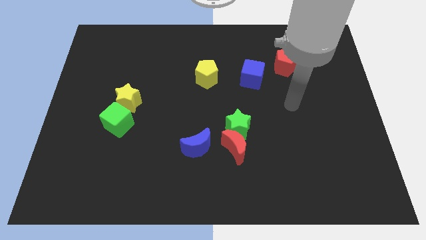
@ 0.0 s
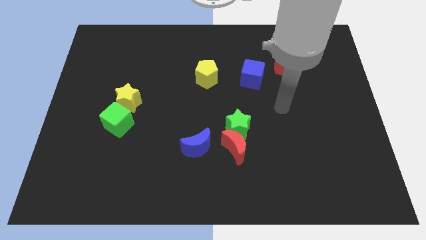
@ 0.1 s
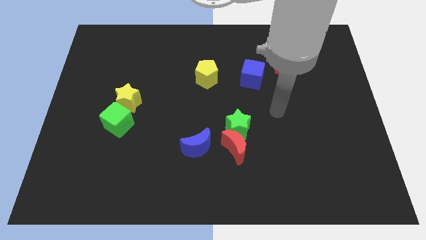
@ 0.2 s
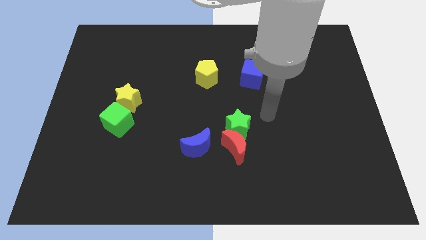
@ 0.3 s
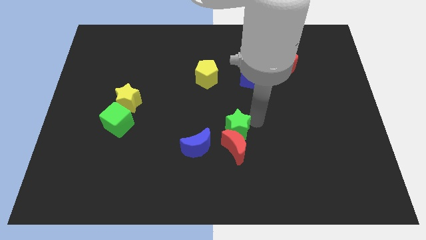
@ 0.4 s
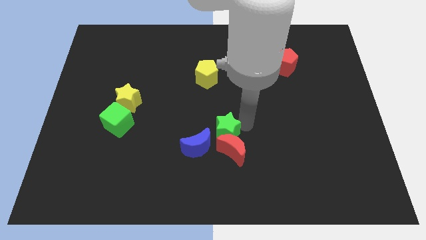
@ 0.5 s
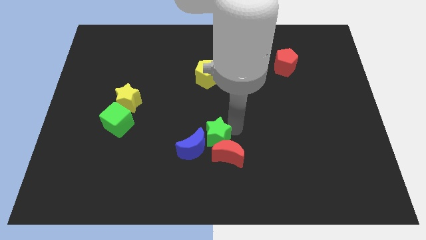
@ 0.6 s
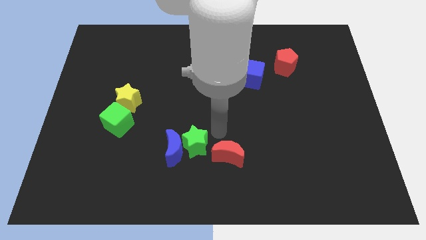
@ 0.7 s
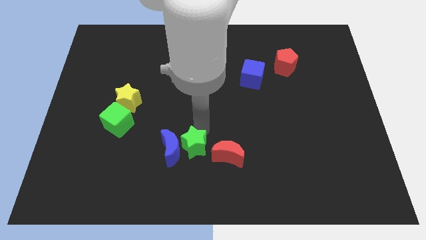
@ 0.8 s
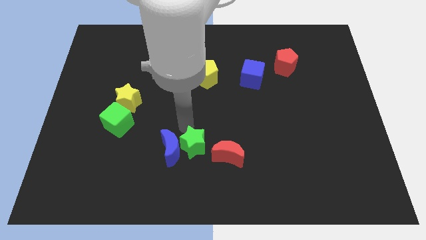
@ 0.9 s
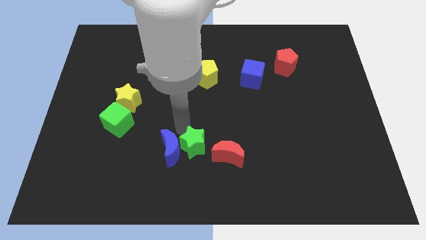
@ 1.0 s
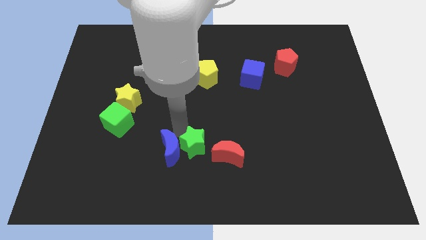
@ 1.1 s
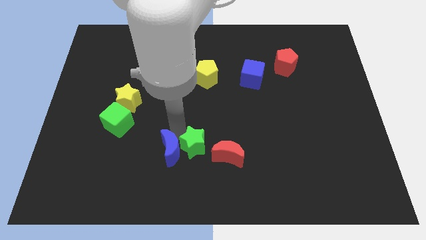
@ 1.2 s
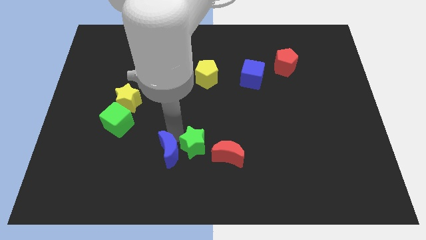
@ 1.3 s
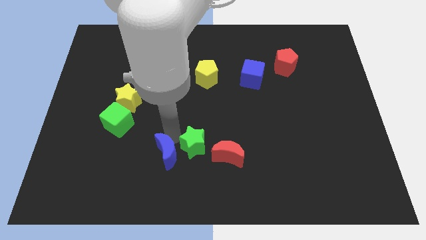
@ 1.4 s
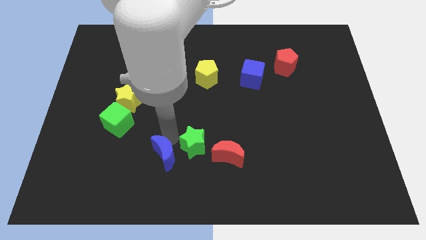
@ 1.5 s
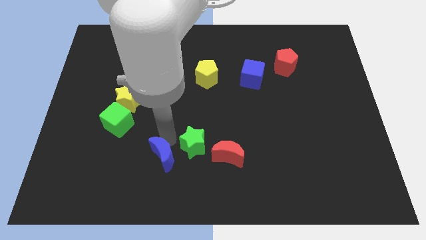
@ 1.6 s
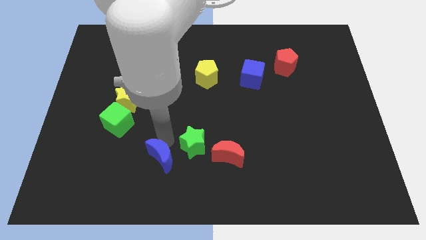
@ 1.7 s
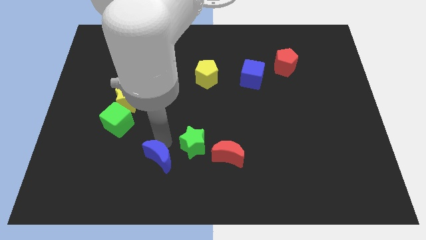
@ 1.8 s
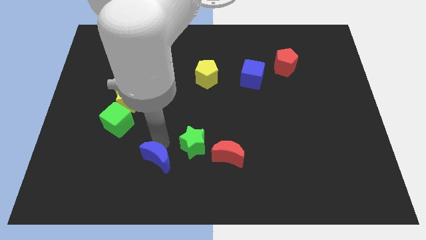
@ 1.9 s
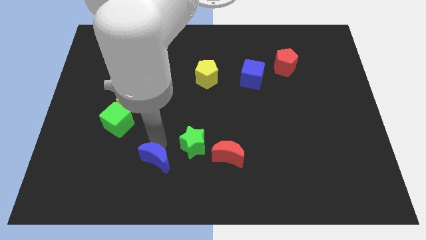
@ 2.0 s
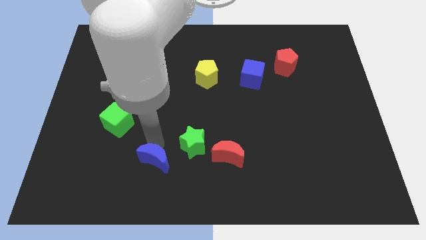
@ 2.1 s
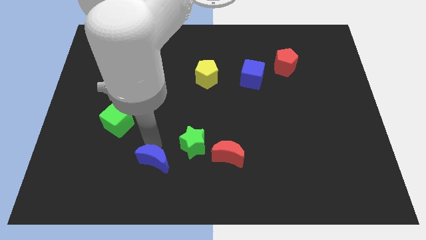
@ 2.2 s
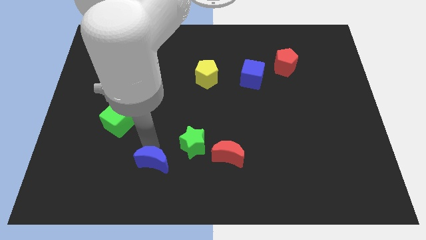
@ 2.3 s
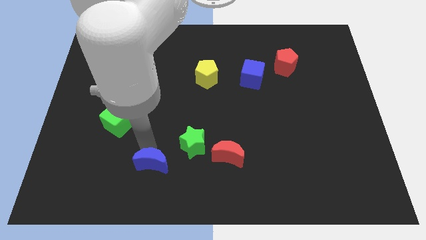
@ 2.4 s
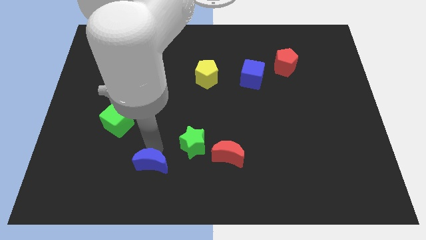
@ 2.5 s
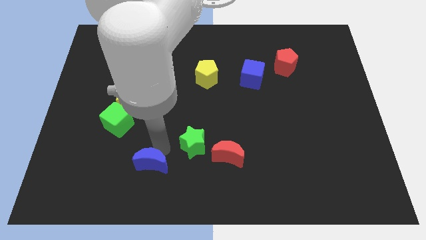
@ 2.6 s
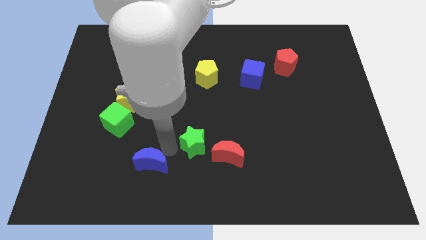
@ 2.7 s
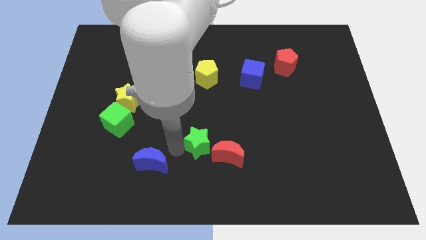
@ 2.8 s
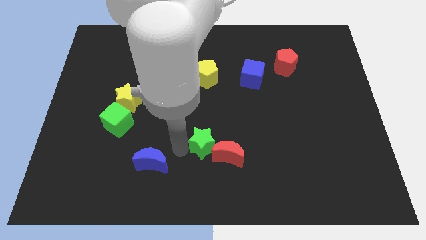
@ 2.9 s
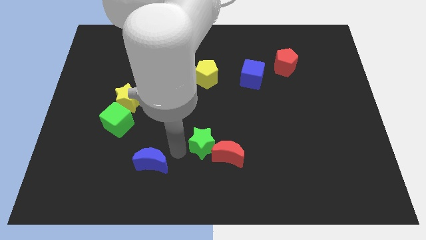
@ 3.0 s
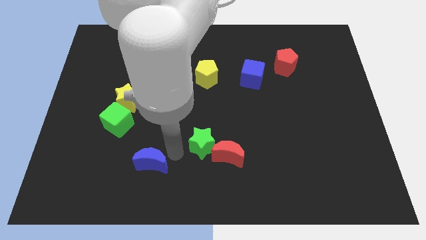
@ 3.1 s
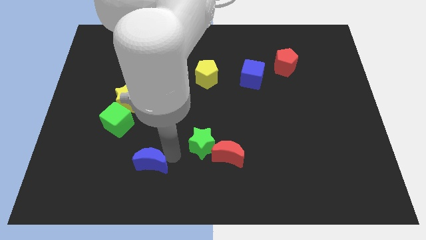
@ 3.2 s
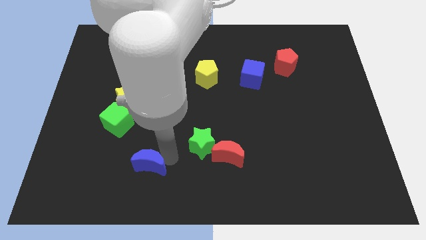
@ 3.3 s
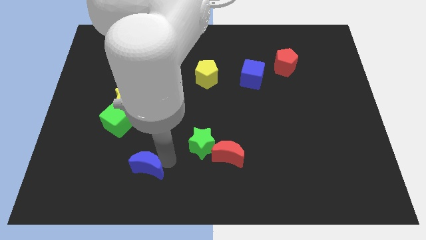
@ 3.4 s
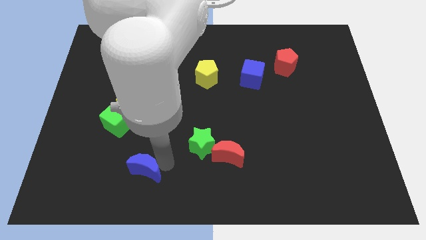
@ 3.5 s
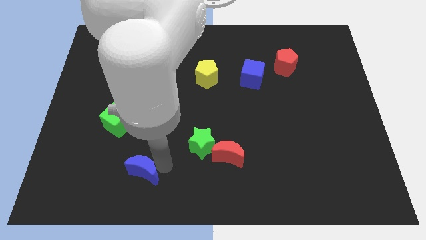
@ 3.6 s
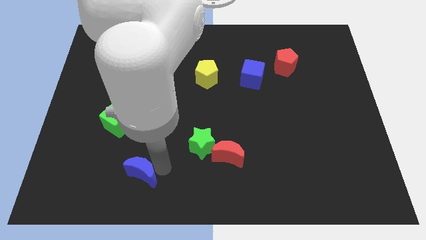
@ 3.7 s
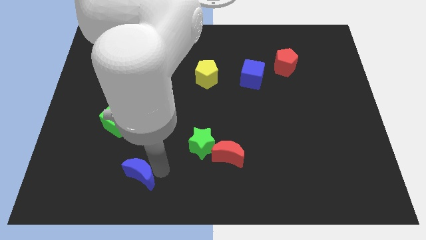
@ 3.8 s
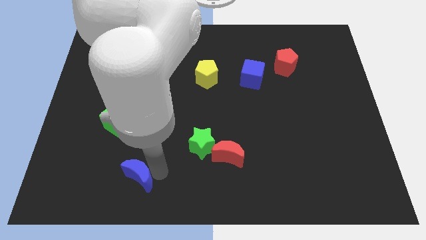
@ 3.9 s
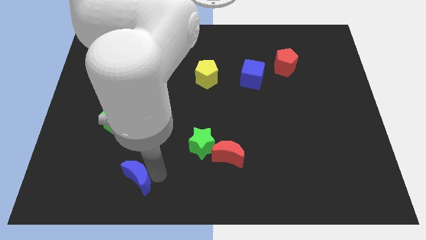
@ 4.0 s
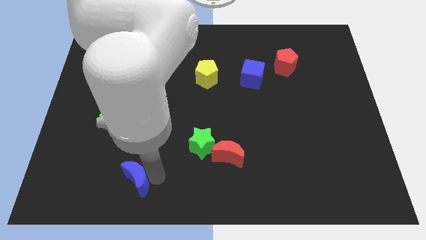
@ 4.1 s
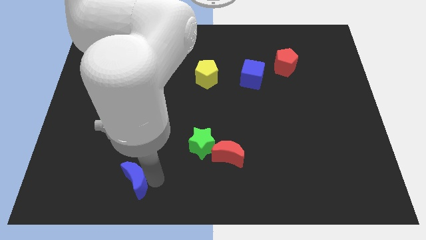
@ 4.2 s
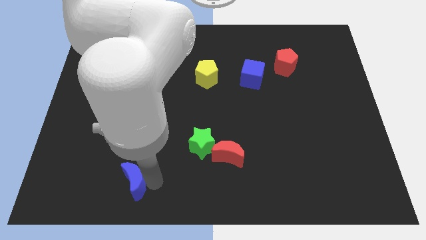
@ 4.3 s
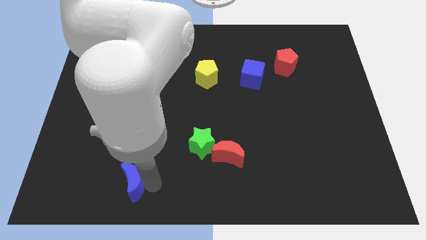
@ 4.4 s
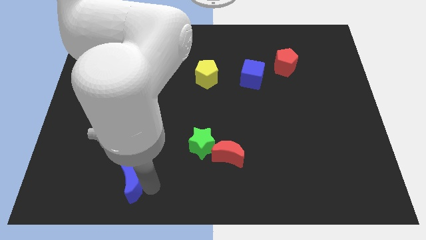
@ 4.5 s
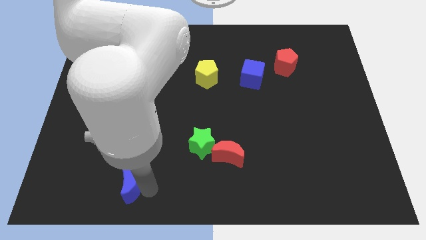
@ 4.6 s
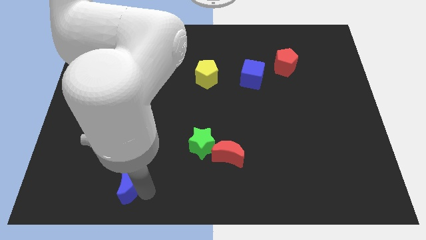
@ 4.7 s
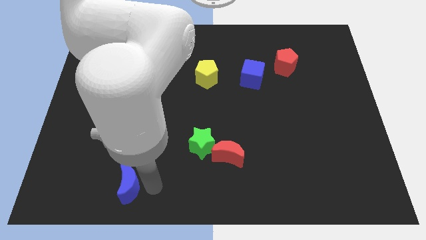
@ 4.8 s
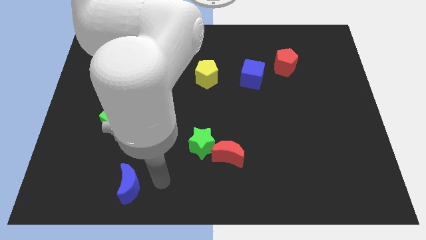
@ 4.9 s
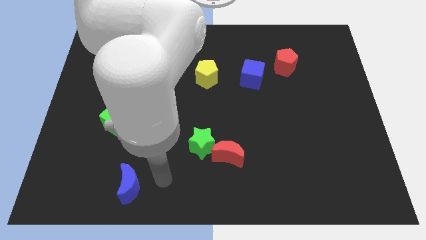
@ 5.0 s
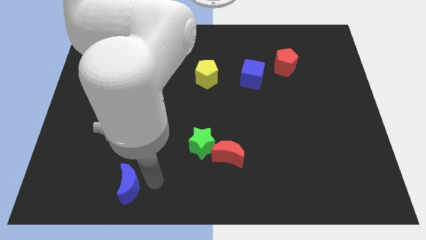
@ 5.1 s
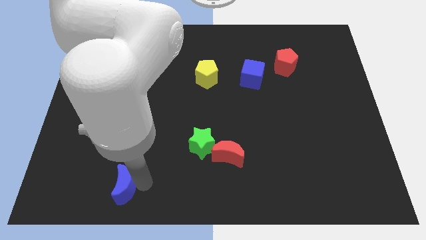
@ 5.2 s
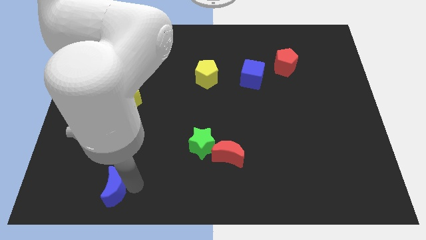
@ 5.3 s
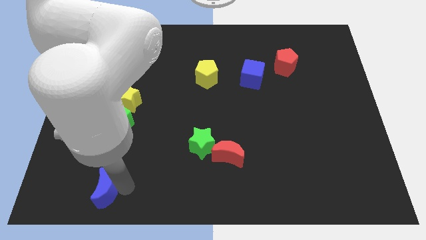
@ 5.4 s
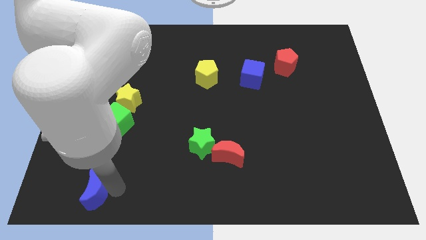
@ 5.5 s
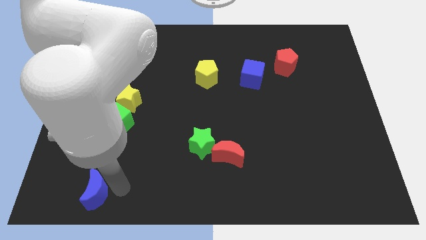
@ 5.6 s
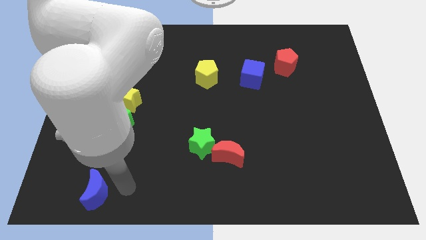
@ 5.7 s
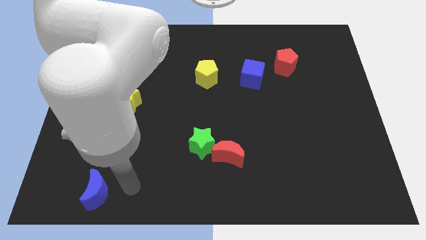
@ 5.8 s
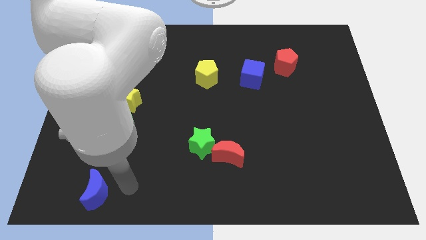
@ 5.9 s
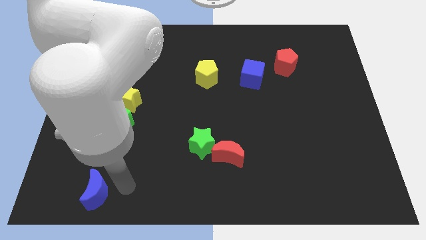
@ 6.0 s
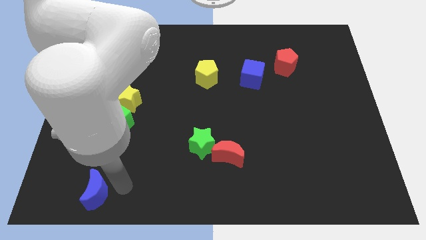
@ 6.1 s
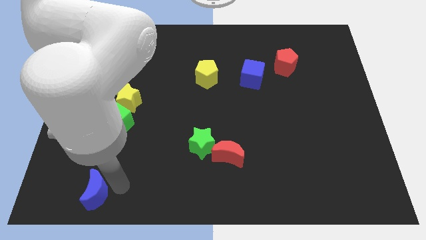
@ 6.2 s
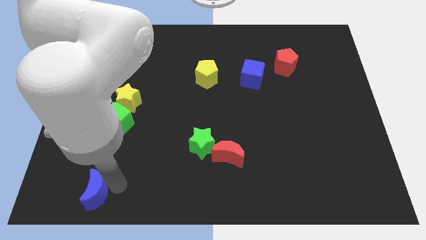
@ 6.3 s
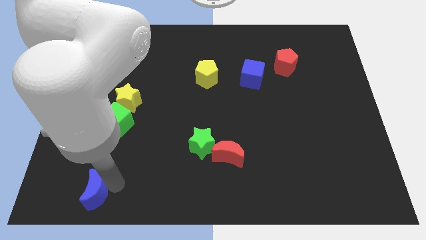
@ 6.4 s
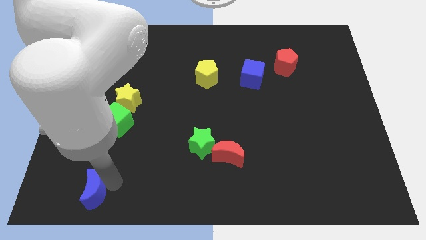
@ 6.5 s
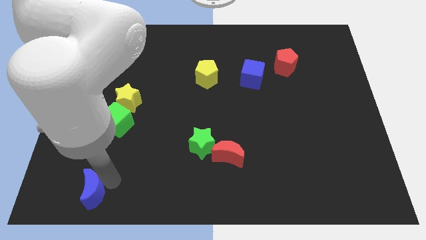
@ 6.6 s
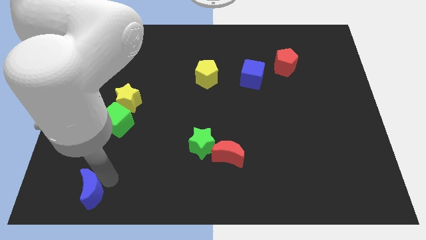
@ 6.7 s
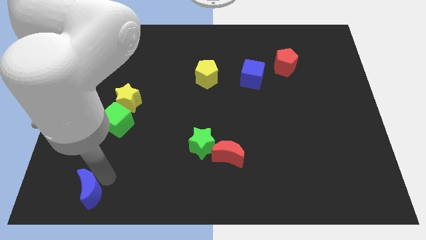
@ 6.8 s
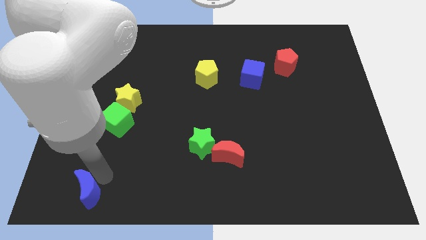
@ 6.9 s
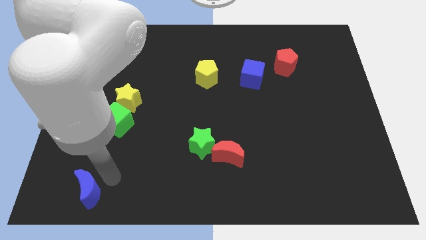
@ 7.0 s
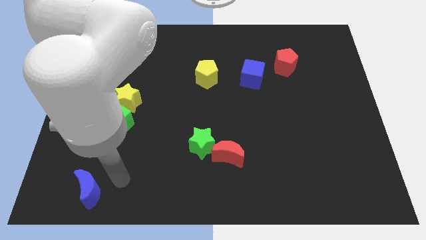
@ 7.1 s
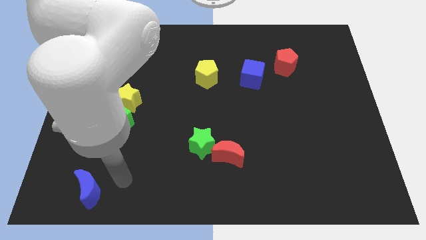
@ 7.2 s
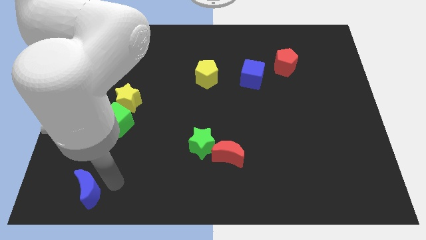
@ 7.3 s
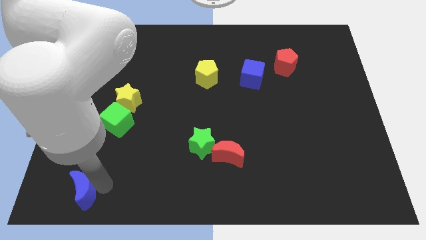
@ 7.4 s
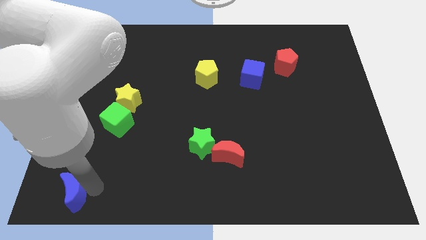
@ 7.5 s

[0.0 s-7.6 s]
push the blue moon to the bottom left
